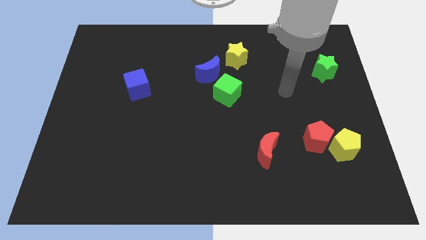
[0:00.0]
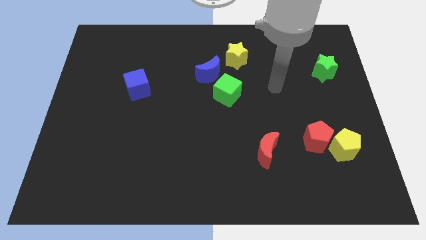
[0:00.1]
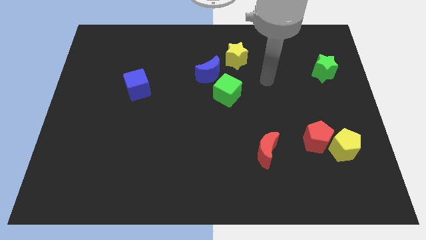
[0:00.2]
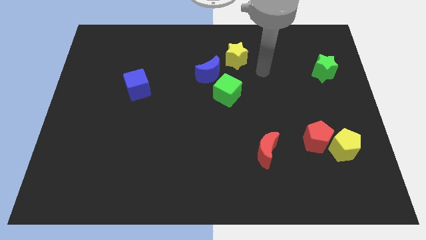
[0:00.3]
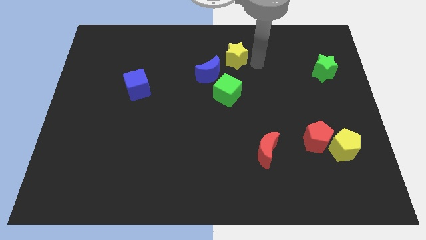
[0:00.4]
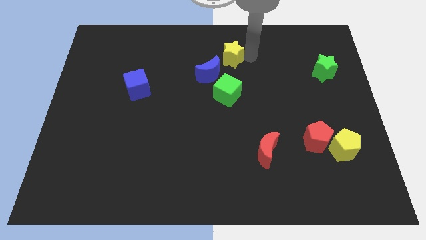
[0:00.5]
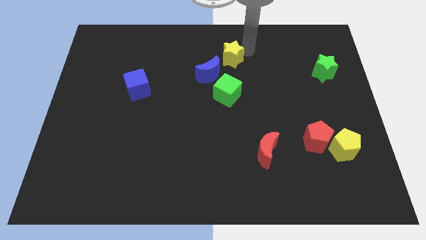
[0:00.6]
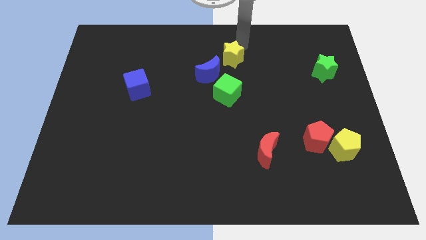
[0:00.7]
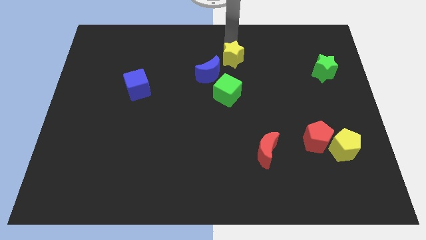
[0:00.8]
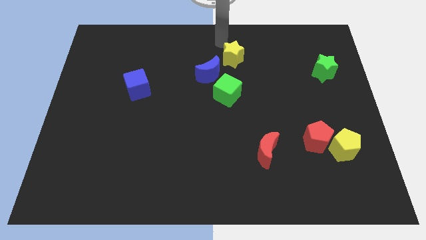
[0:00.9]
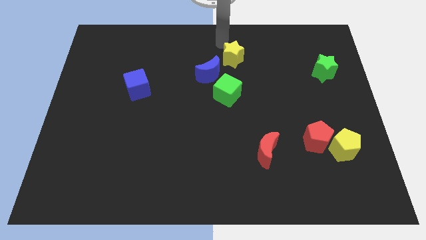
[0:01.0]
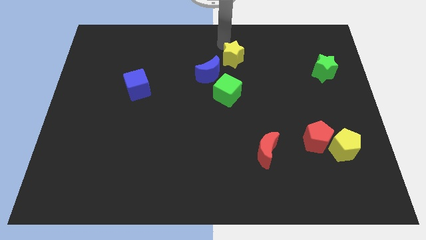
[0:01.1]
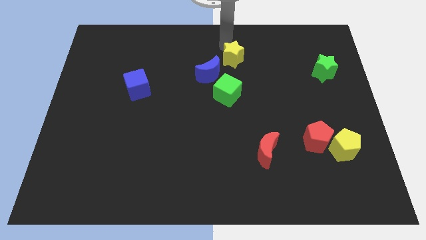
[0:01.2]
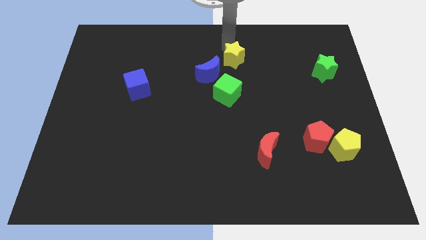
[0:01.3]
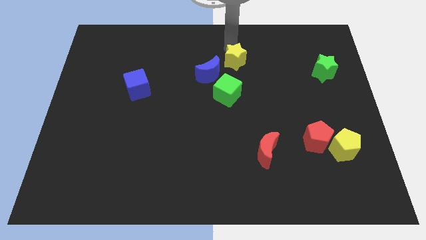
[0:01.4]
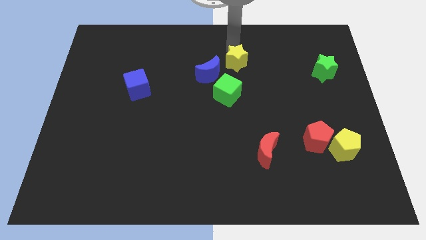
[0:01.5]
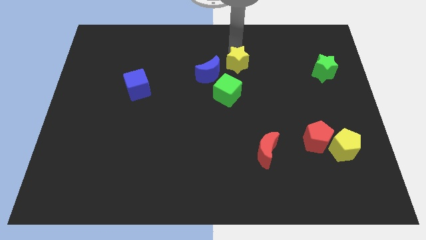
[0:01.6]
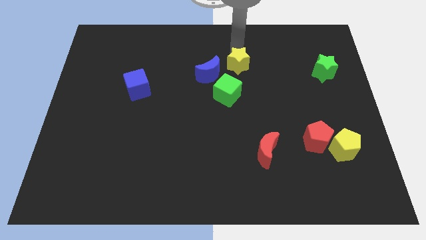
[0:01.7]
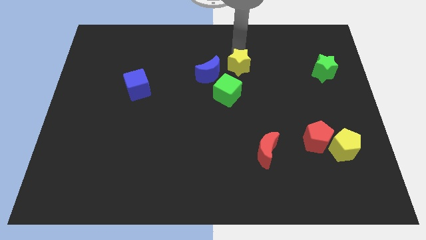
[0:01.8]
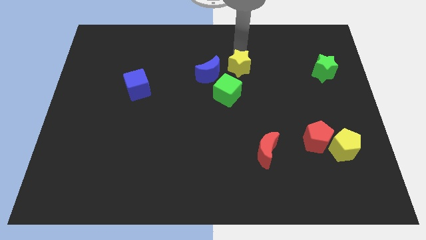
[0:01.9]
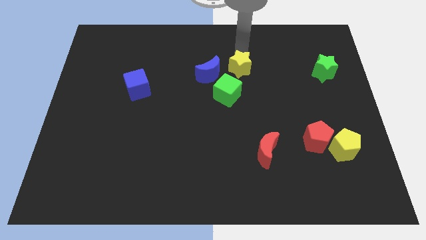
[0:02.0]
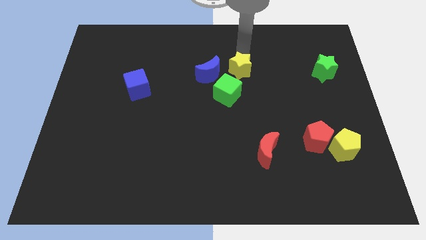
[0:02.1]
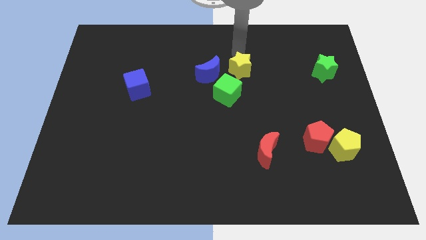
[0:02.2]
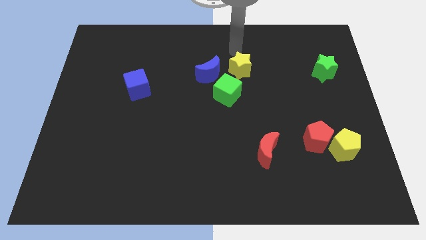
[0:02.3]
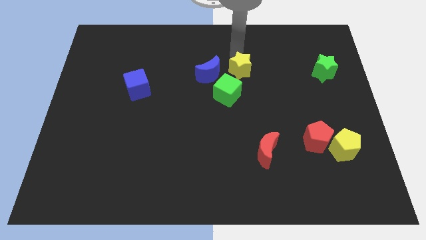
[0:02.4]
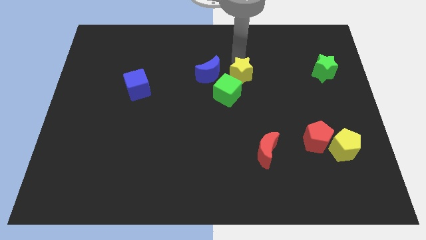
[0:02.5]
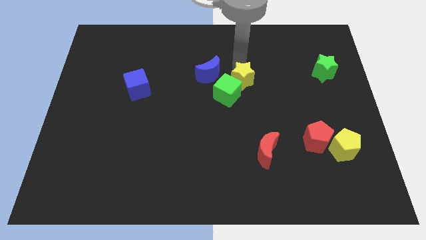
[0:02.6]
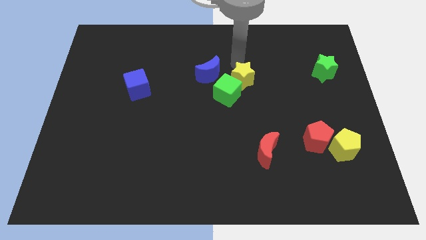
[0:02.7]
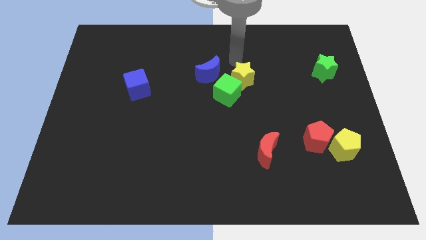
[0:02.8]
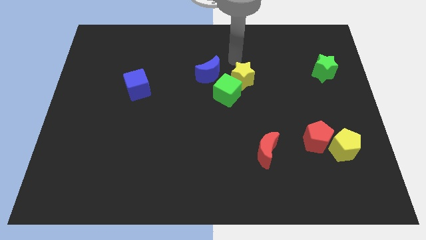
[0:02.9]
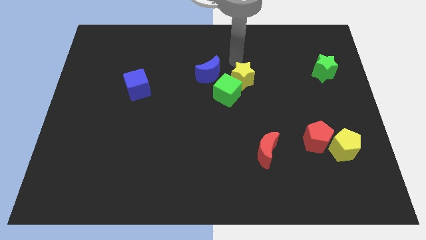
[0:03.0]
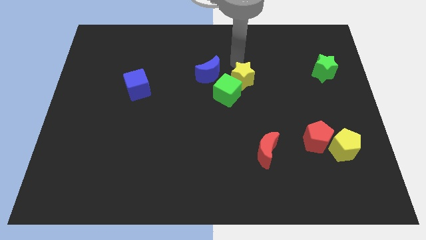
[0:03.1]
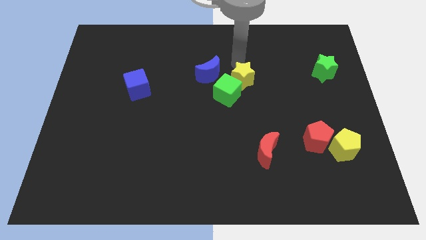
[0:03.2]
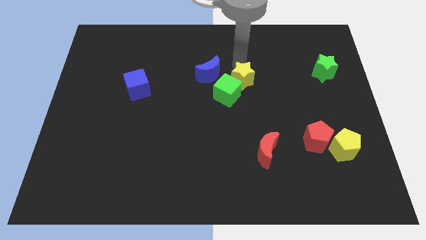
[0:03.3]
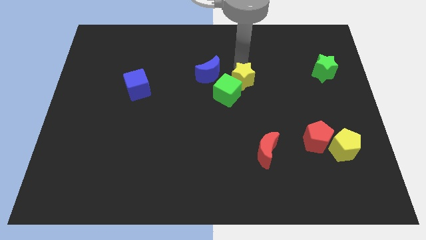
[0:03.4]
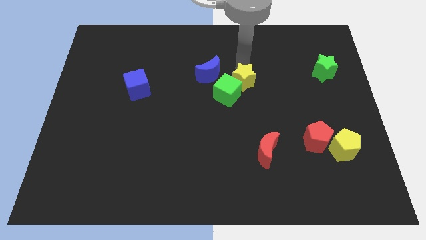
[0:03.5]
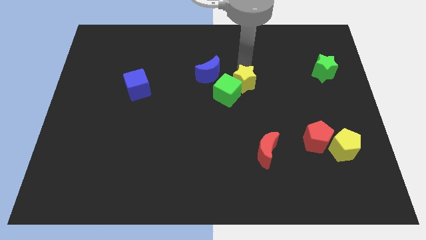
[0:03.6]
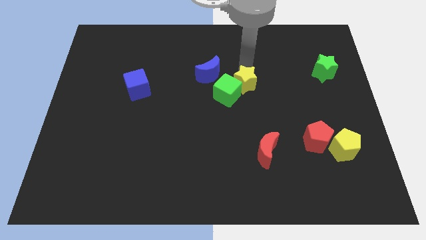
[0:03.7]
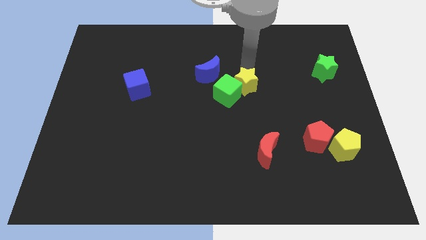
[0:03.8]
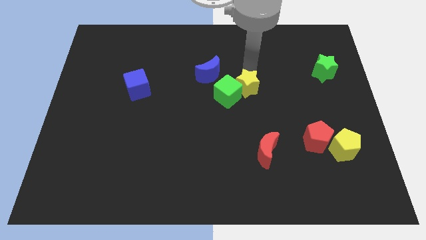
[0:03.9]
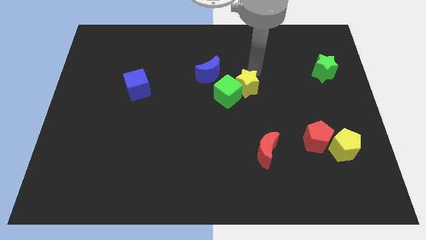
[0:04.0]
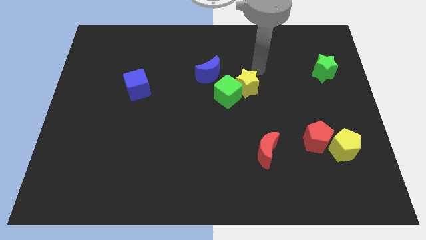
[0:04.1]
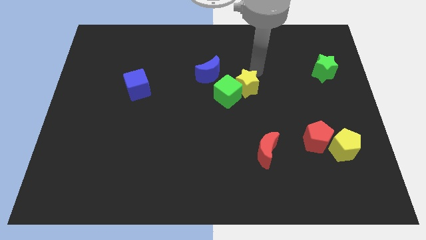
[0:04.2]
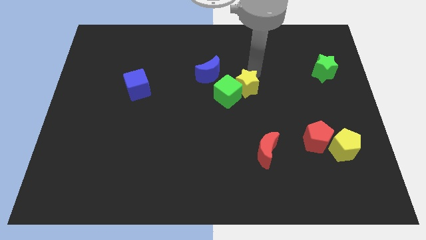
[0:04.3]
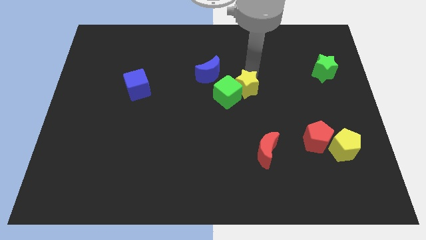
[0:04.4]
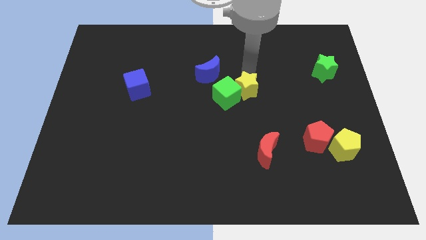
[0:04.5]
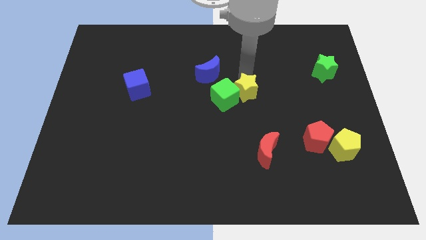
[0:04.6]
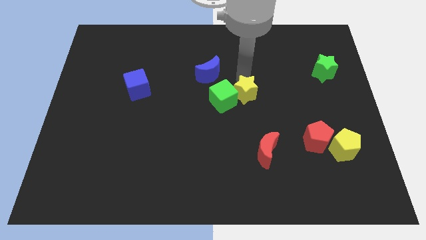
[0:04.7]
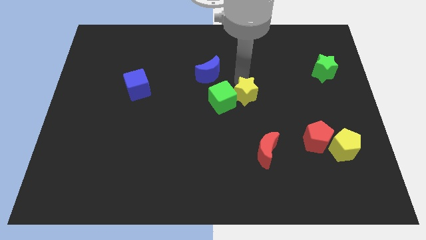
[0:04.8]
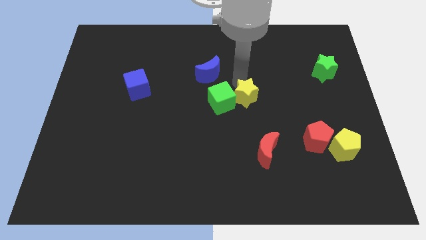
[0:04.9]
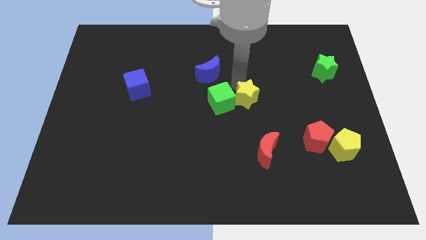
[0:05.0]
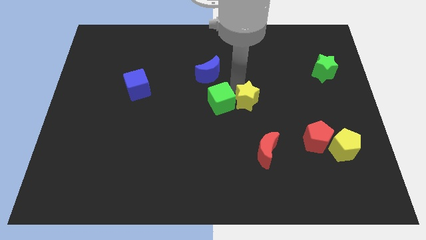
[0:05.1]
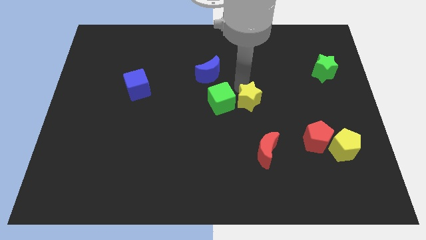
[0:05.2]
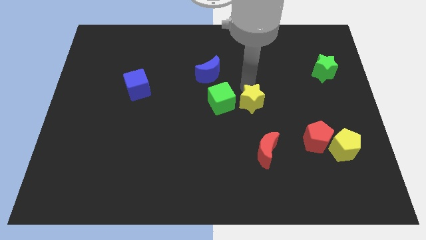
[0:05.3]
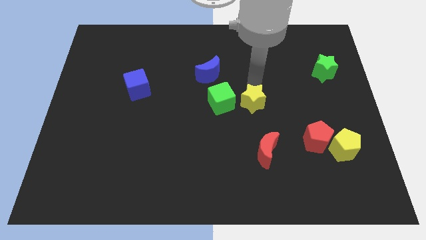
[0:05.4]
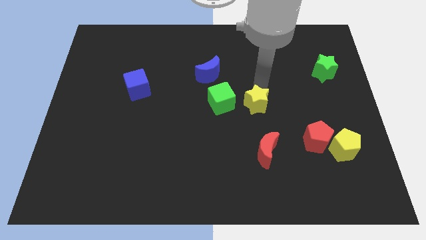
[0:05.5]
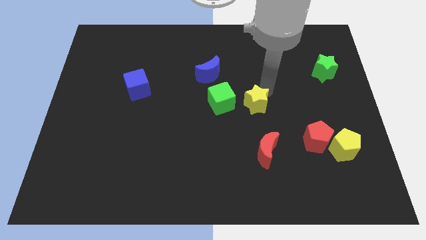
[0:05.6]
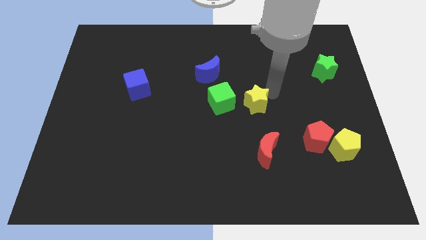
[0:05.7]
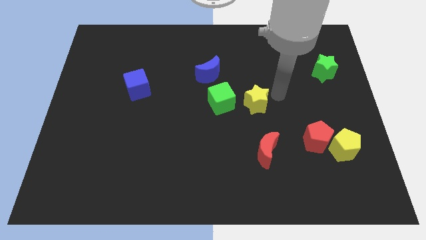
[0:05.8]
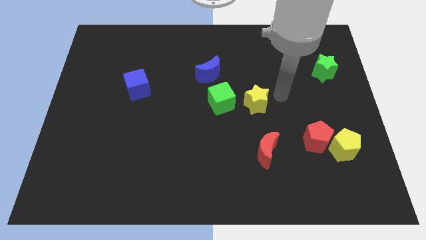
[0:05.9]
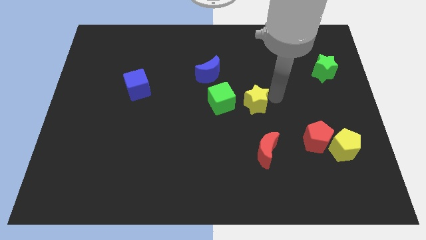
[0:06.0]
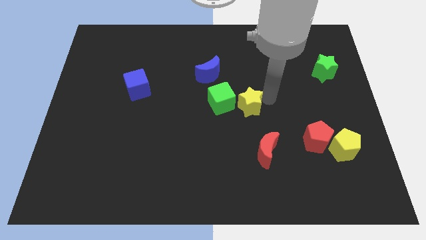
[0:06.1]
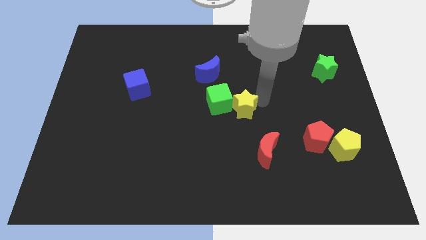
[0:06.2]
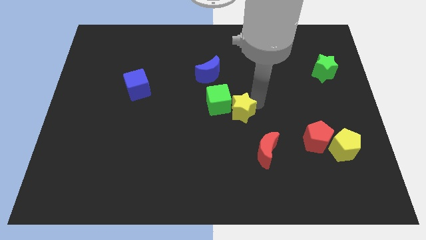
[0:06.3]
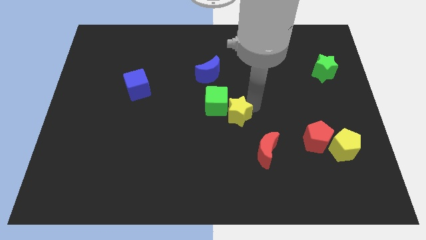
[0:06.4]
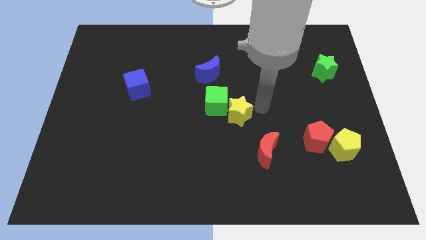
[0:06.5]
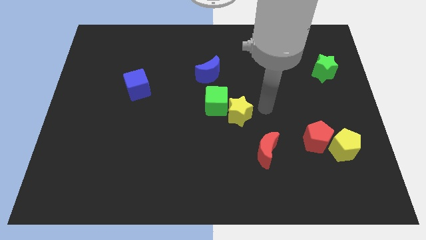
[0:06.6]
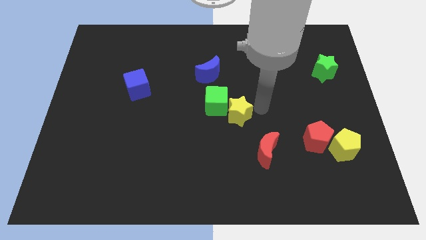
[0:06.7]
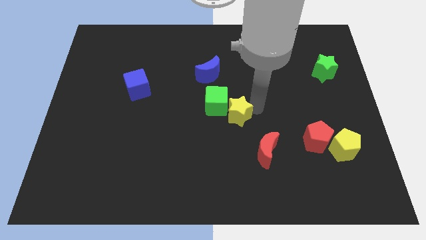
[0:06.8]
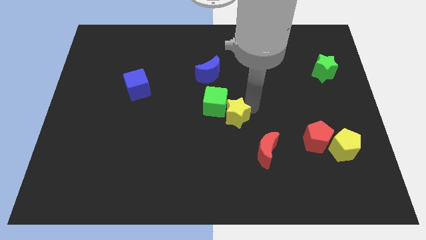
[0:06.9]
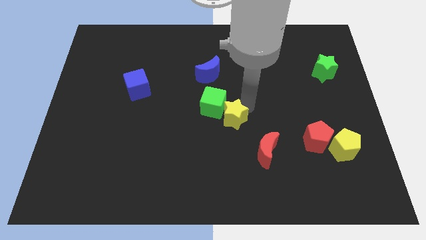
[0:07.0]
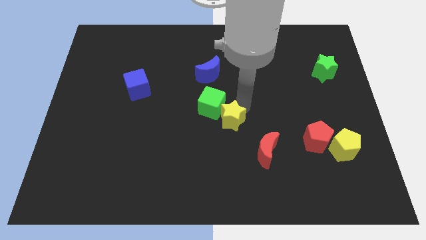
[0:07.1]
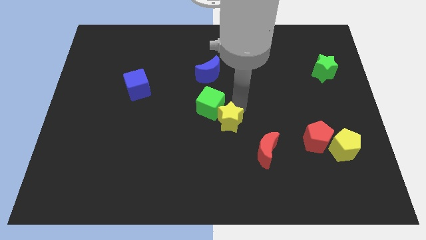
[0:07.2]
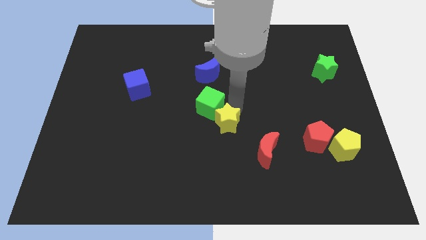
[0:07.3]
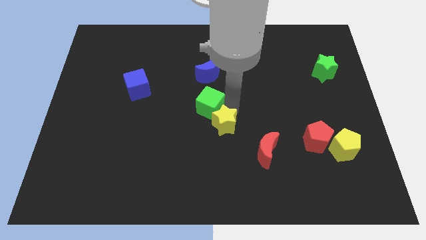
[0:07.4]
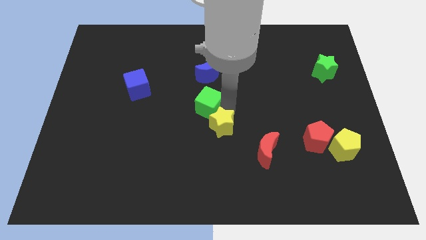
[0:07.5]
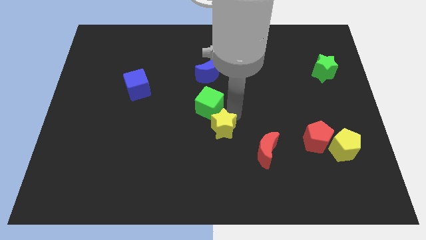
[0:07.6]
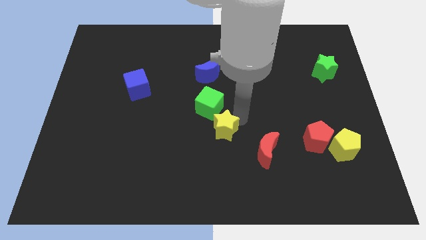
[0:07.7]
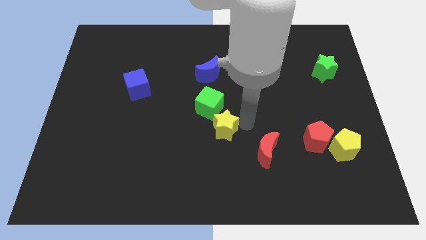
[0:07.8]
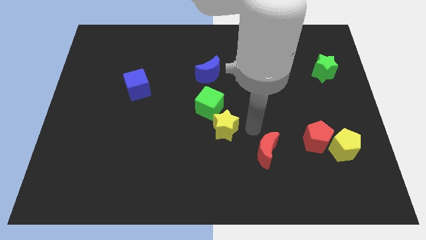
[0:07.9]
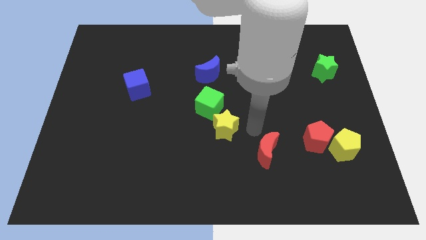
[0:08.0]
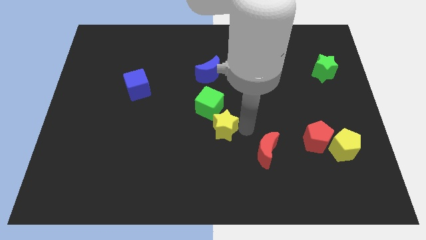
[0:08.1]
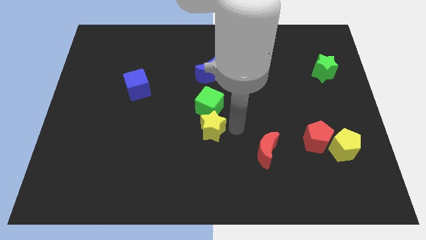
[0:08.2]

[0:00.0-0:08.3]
move the yellow star to the bottom left of the green cube
